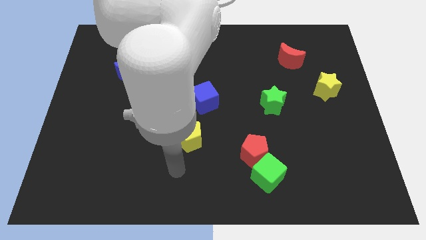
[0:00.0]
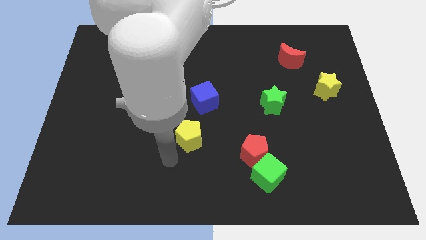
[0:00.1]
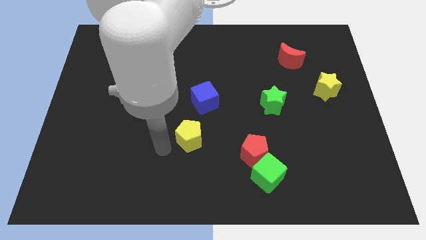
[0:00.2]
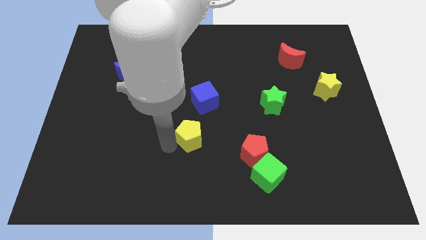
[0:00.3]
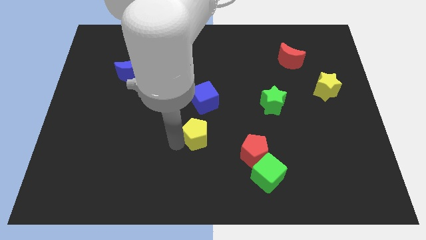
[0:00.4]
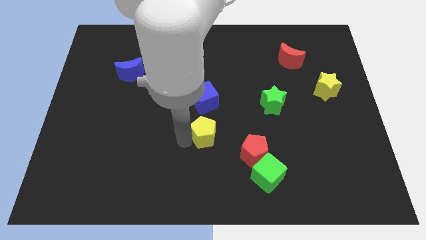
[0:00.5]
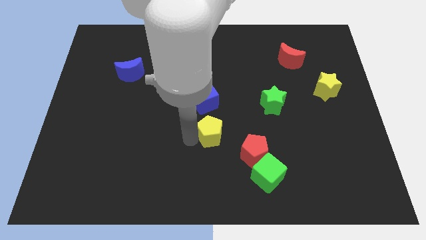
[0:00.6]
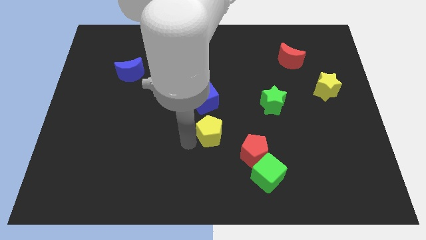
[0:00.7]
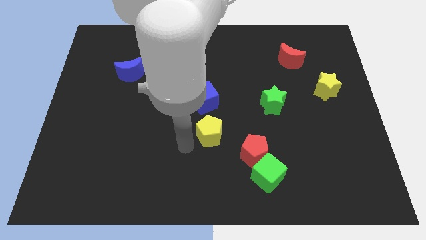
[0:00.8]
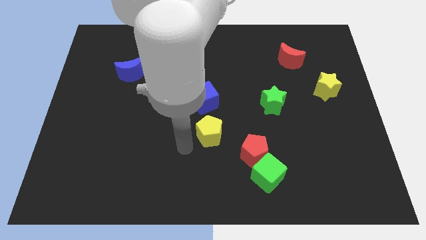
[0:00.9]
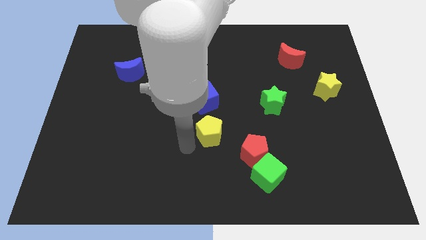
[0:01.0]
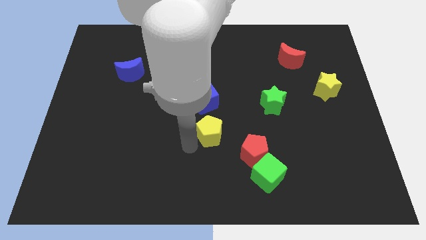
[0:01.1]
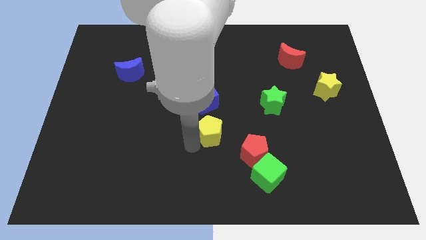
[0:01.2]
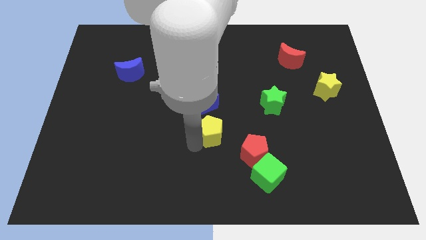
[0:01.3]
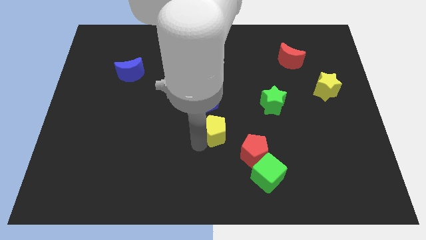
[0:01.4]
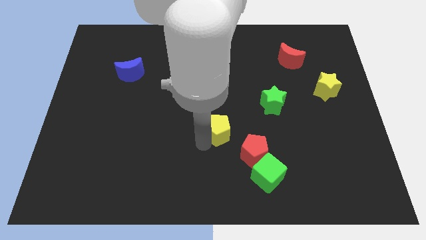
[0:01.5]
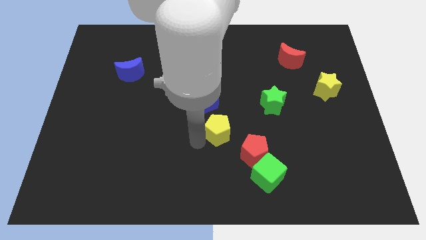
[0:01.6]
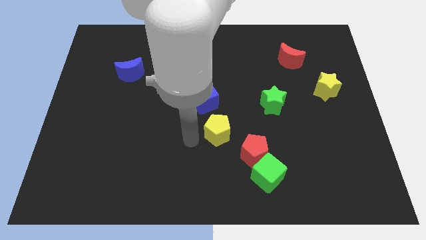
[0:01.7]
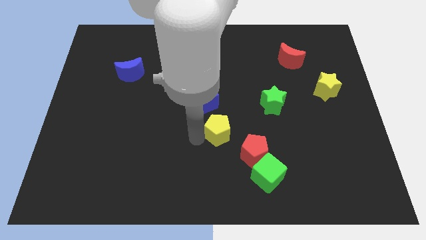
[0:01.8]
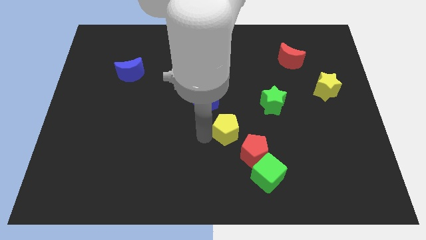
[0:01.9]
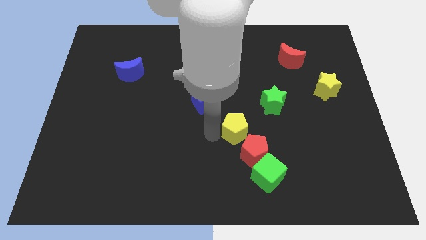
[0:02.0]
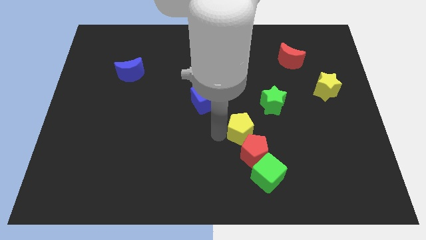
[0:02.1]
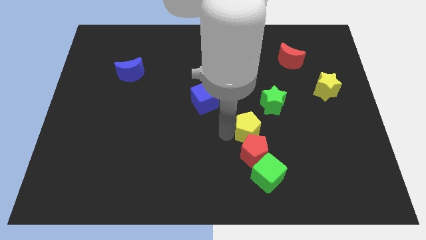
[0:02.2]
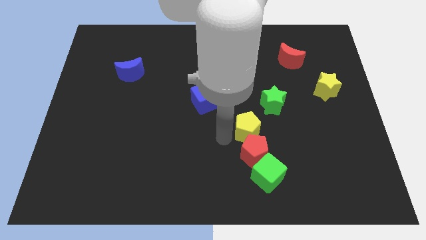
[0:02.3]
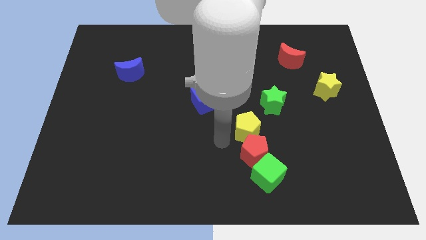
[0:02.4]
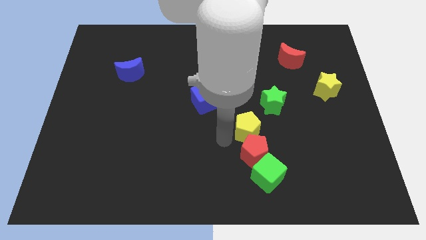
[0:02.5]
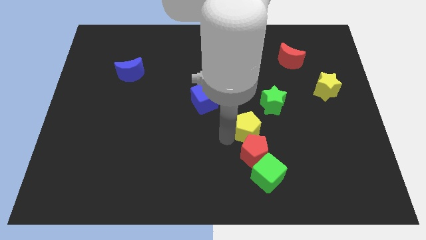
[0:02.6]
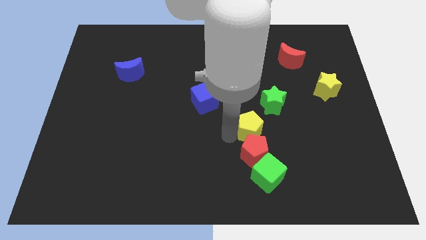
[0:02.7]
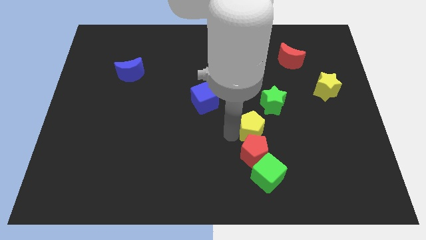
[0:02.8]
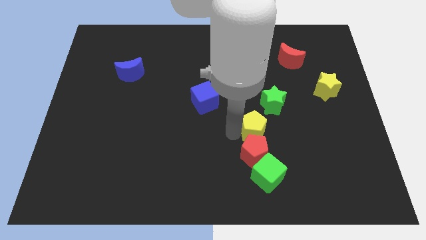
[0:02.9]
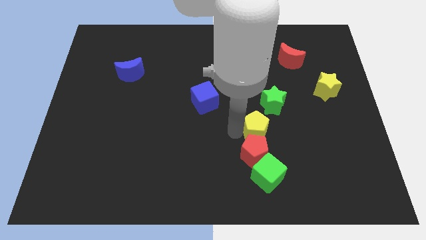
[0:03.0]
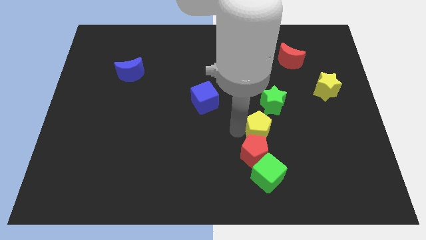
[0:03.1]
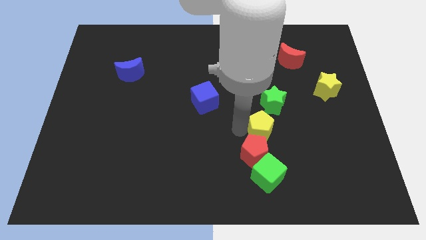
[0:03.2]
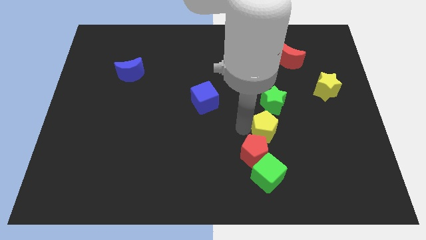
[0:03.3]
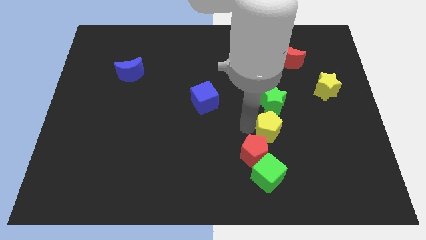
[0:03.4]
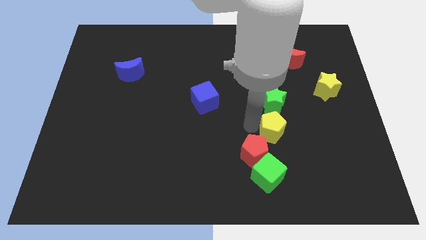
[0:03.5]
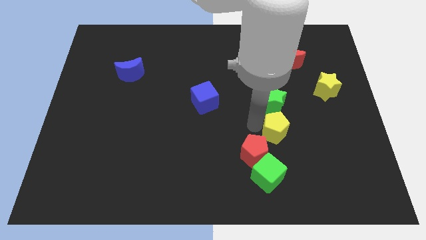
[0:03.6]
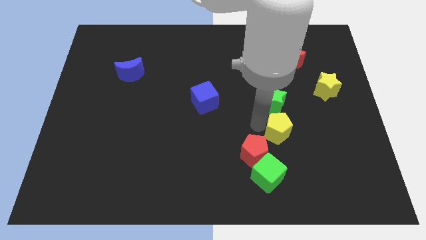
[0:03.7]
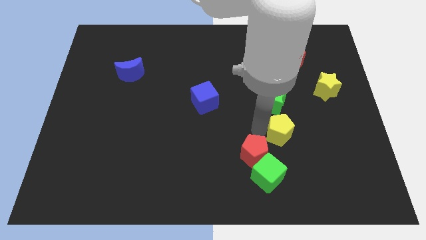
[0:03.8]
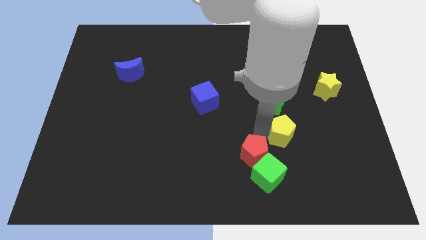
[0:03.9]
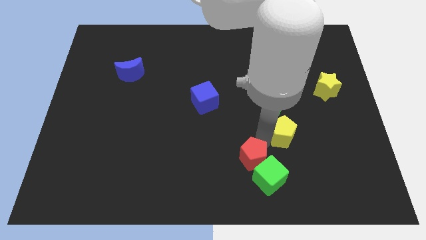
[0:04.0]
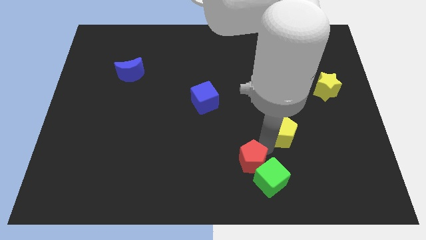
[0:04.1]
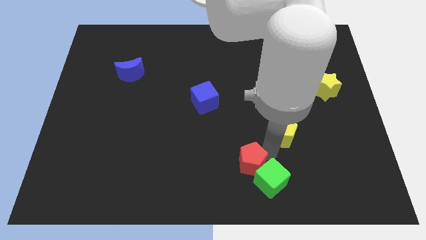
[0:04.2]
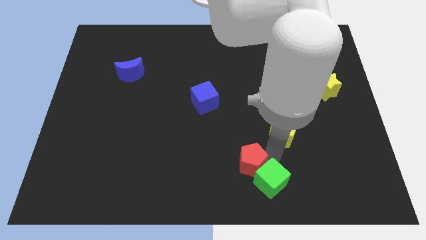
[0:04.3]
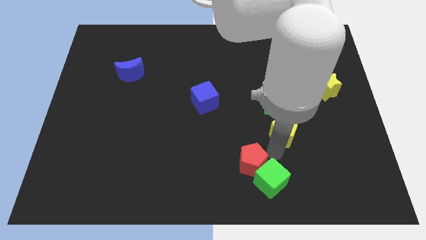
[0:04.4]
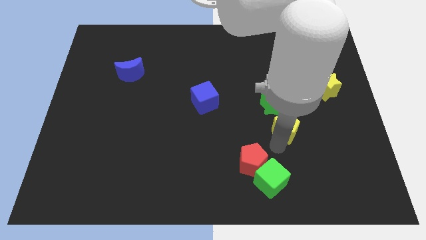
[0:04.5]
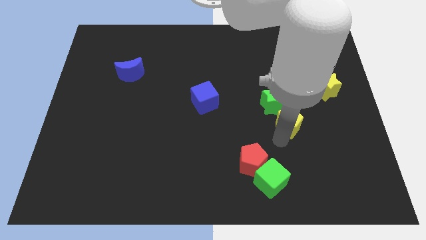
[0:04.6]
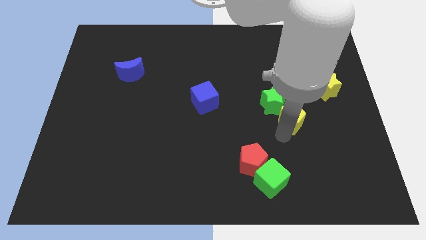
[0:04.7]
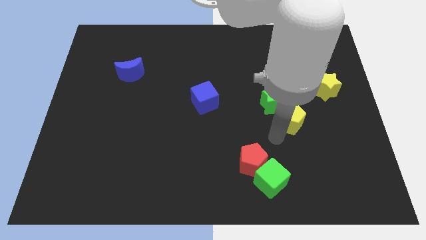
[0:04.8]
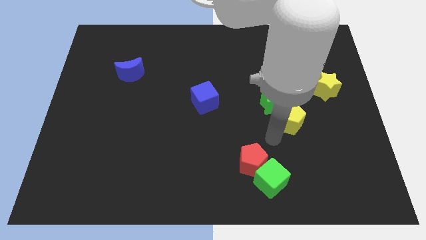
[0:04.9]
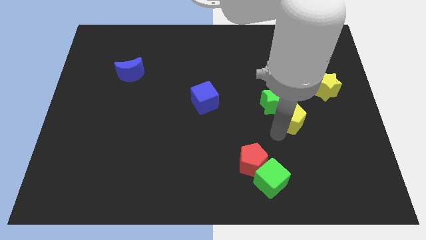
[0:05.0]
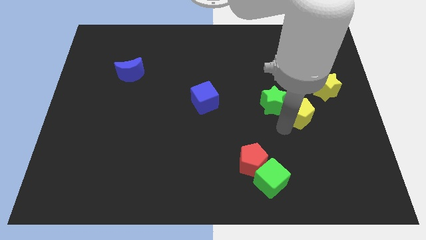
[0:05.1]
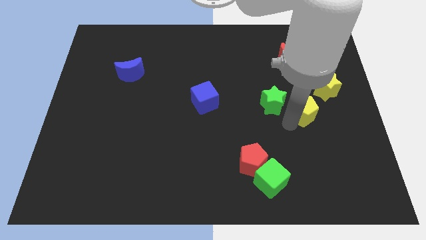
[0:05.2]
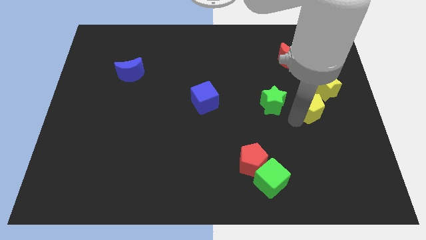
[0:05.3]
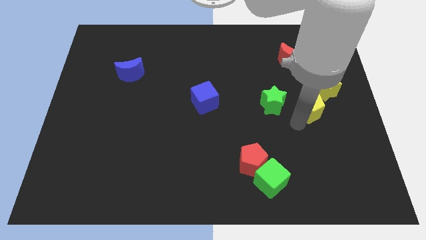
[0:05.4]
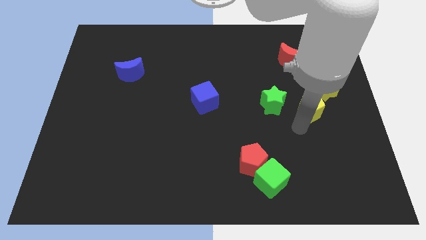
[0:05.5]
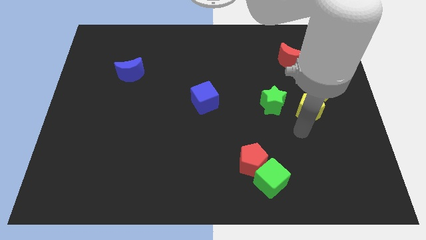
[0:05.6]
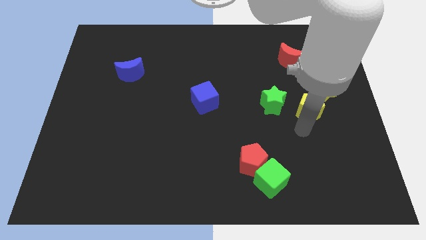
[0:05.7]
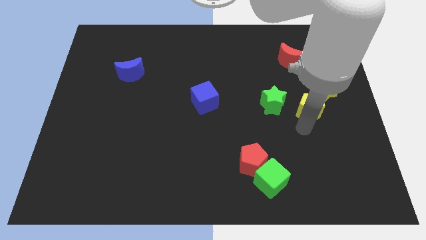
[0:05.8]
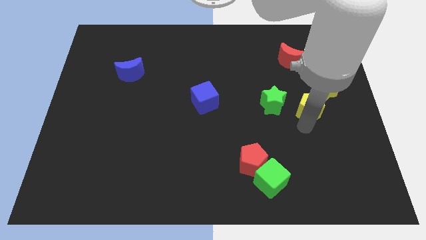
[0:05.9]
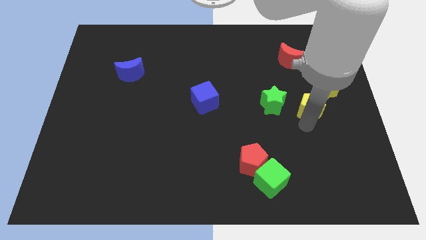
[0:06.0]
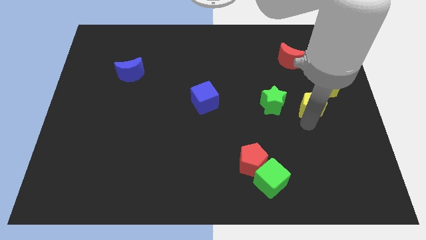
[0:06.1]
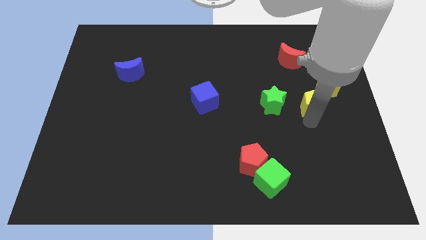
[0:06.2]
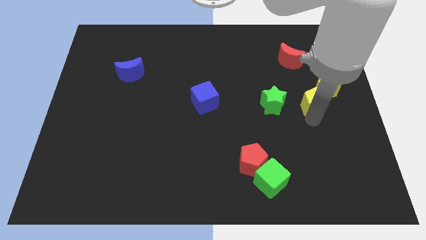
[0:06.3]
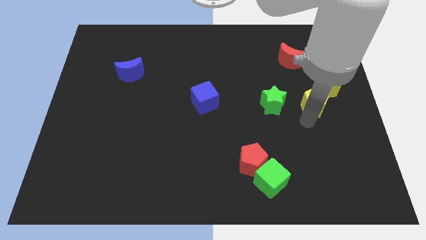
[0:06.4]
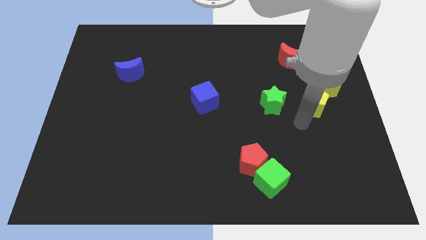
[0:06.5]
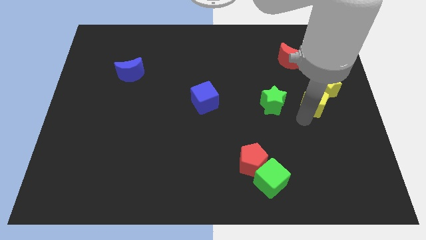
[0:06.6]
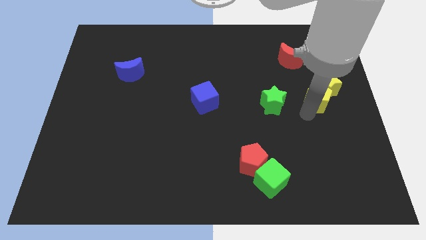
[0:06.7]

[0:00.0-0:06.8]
put the yellow pentagon towards the yellow star

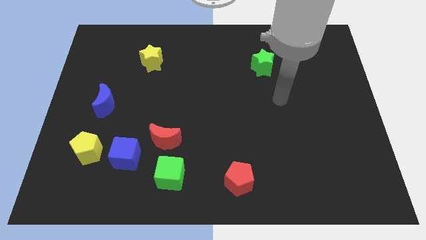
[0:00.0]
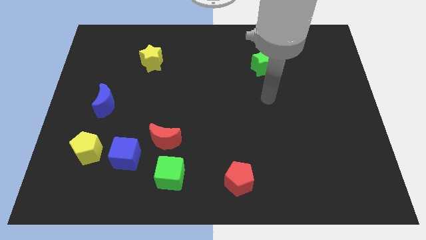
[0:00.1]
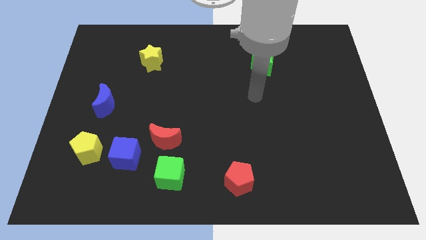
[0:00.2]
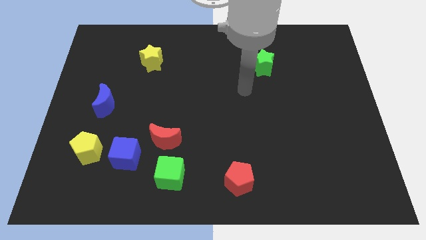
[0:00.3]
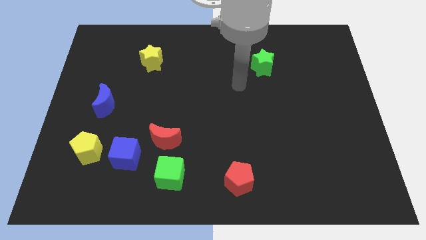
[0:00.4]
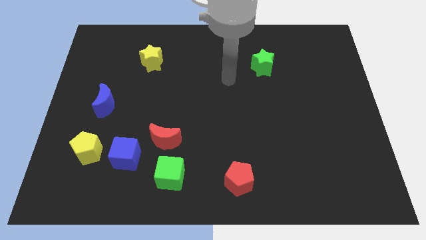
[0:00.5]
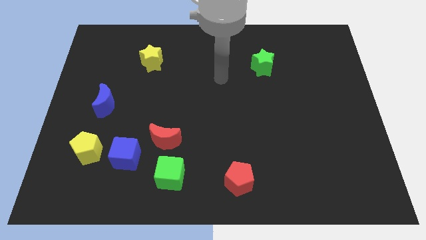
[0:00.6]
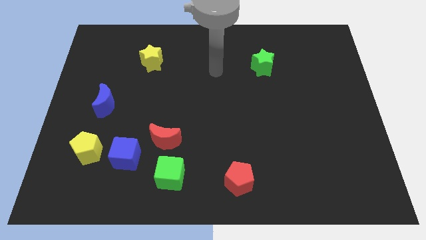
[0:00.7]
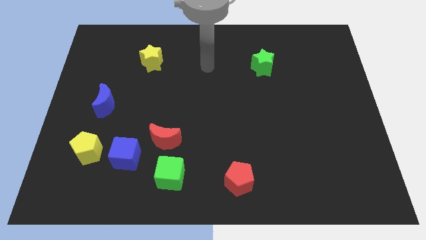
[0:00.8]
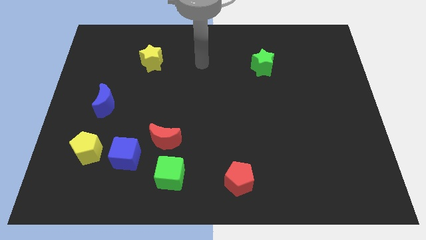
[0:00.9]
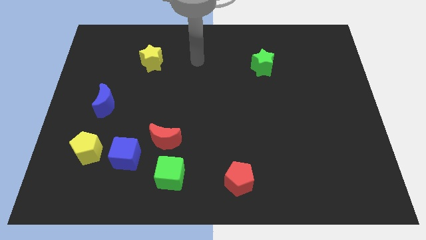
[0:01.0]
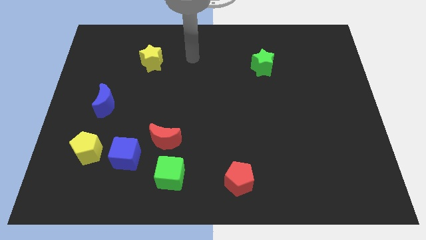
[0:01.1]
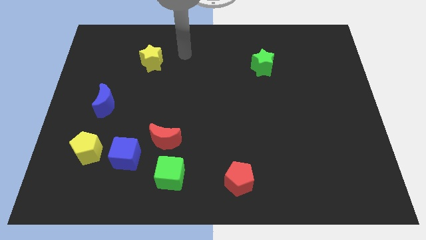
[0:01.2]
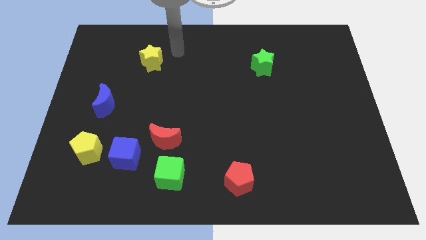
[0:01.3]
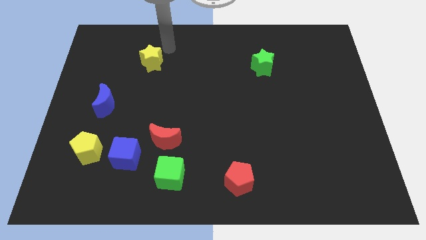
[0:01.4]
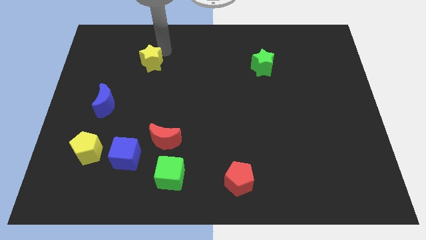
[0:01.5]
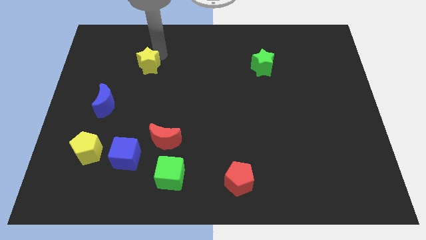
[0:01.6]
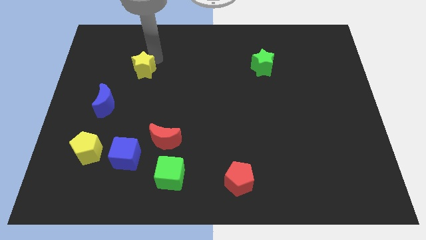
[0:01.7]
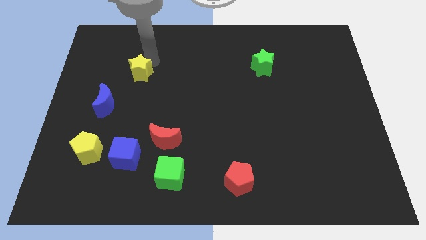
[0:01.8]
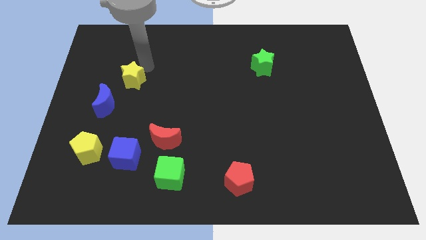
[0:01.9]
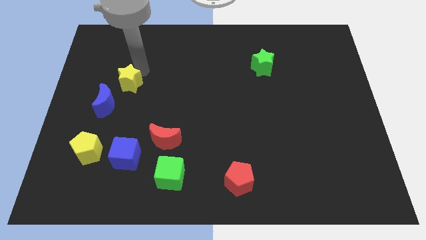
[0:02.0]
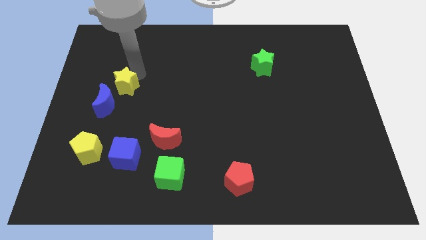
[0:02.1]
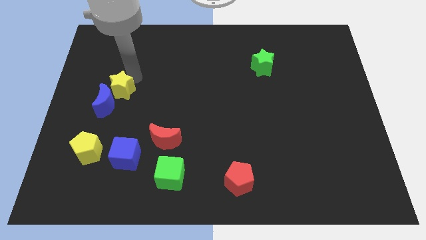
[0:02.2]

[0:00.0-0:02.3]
slide the yellow star to the blue moon
